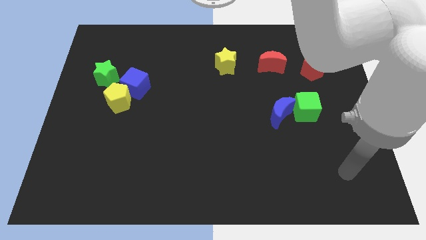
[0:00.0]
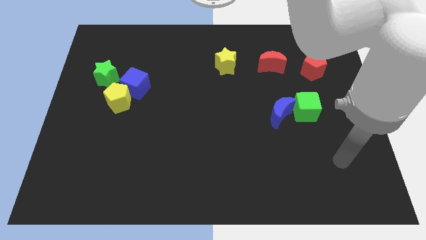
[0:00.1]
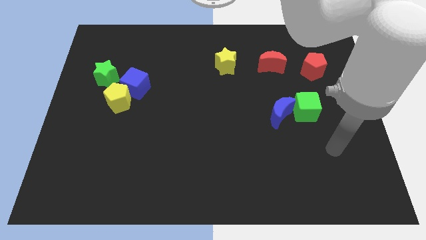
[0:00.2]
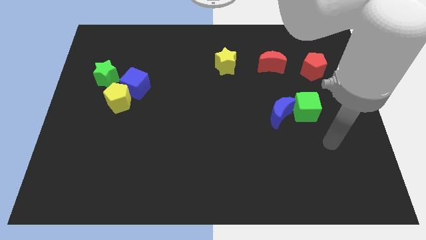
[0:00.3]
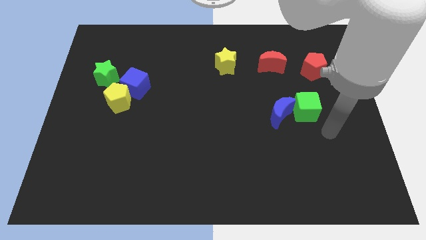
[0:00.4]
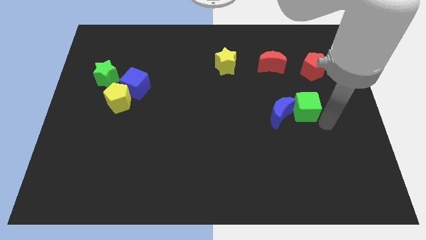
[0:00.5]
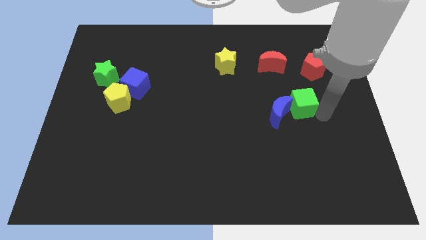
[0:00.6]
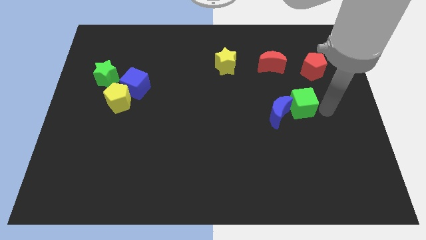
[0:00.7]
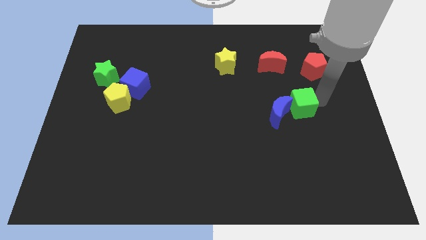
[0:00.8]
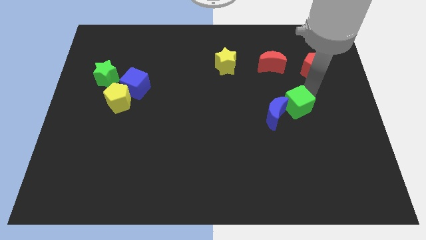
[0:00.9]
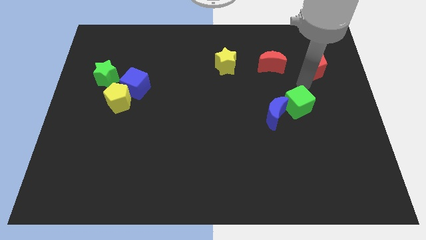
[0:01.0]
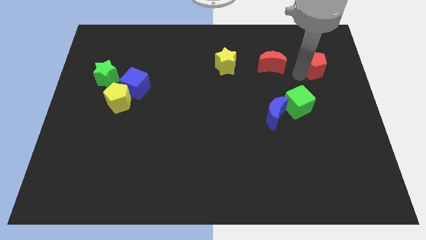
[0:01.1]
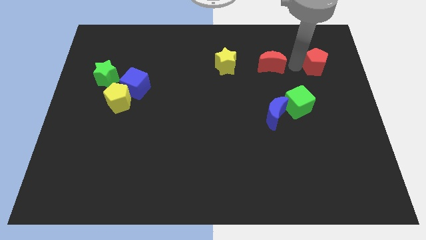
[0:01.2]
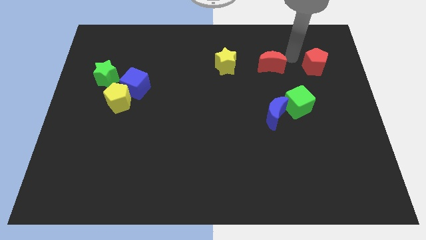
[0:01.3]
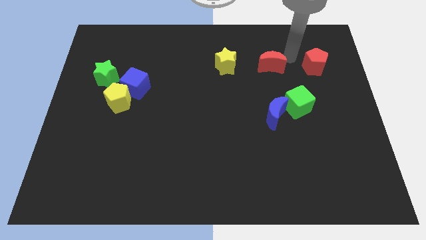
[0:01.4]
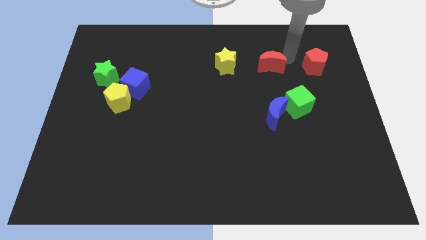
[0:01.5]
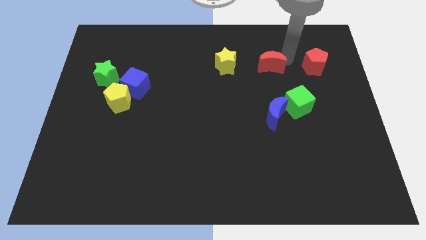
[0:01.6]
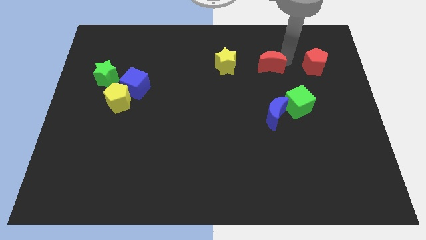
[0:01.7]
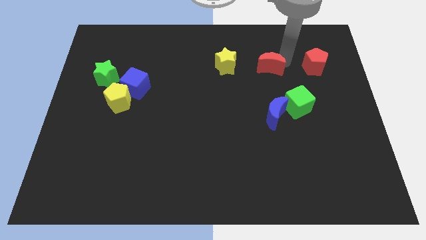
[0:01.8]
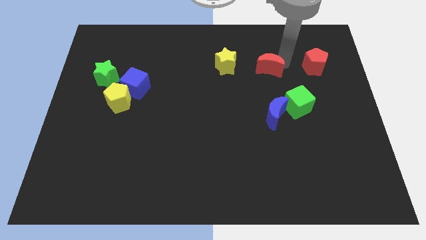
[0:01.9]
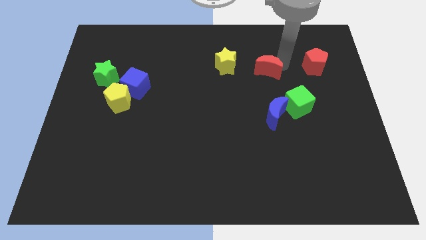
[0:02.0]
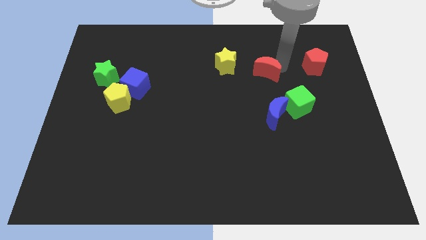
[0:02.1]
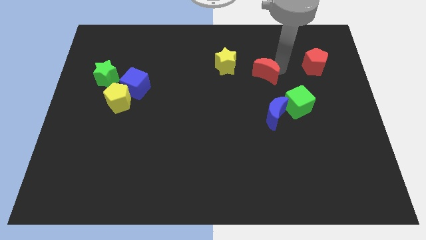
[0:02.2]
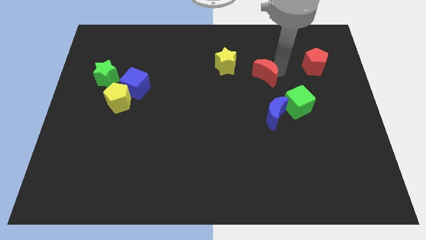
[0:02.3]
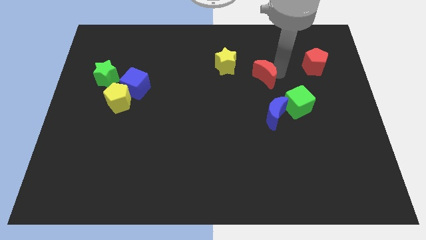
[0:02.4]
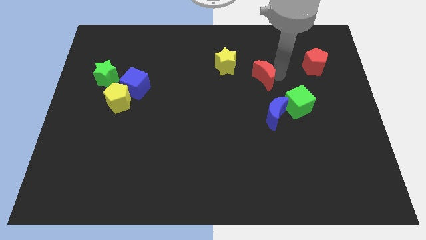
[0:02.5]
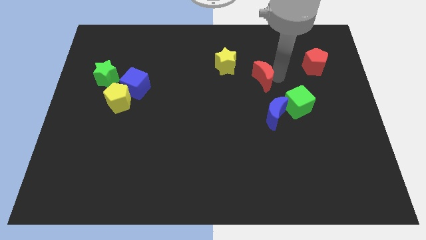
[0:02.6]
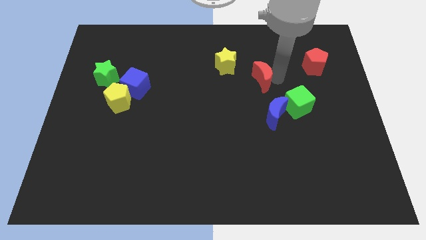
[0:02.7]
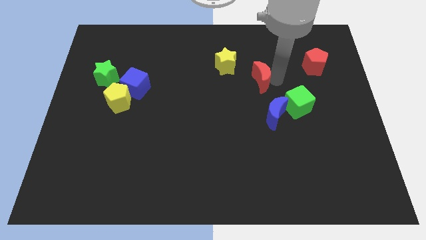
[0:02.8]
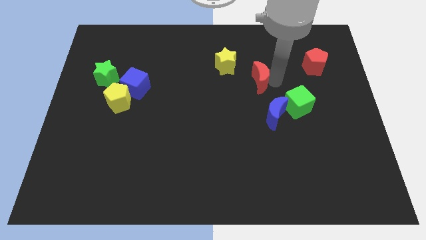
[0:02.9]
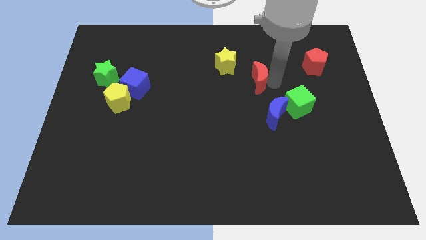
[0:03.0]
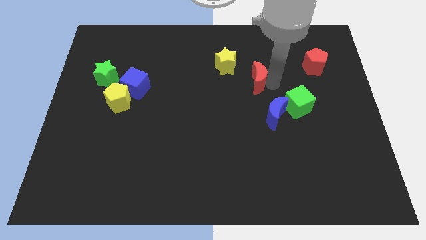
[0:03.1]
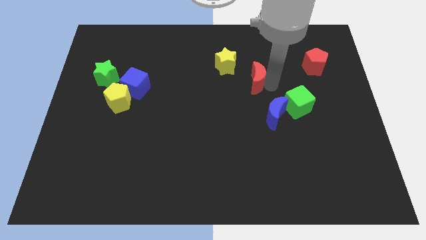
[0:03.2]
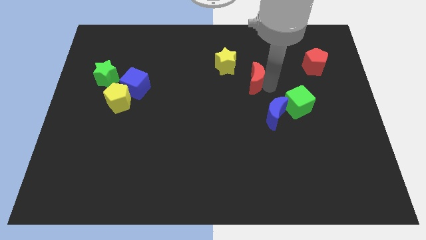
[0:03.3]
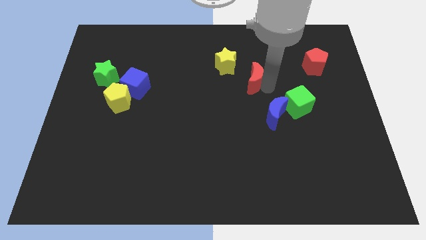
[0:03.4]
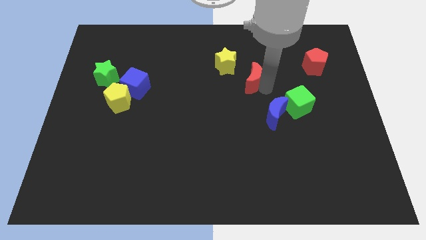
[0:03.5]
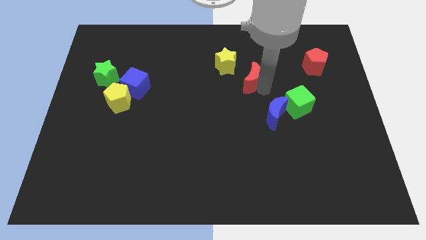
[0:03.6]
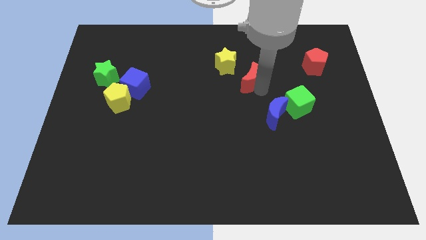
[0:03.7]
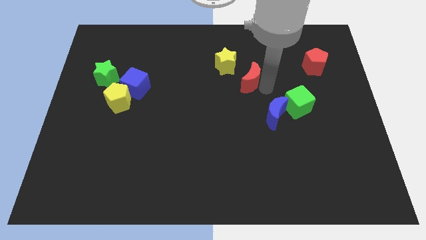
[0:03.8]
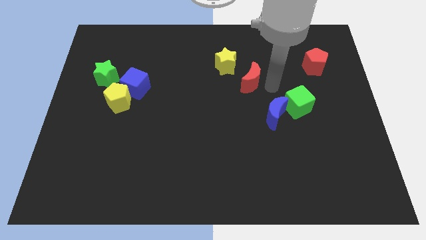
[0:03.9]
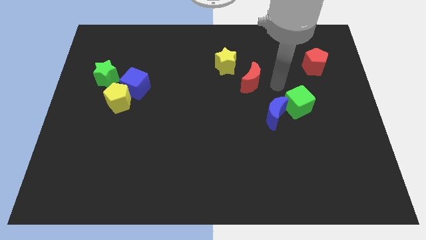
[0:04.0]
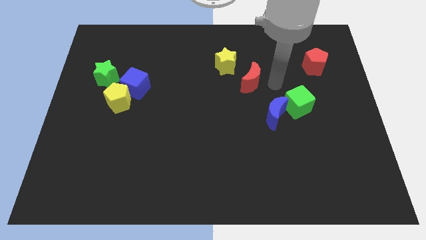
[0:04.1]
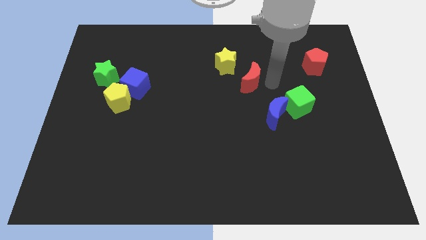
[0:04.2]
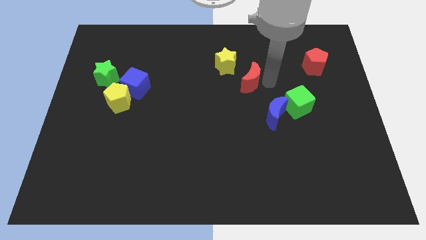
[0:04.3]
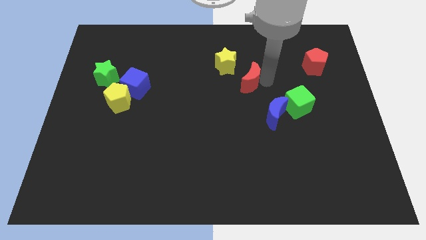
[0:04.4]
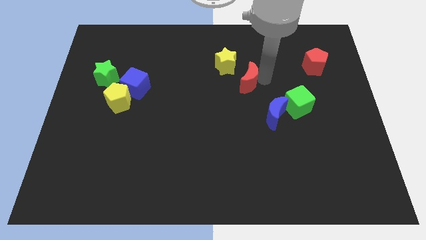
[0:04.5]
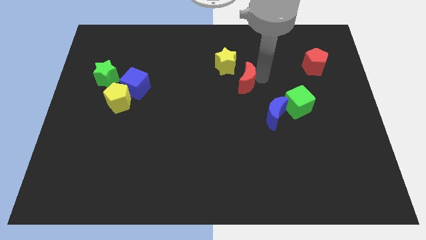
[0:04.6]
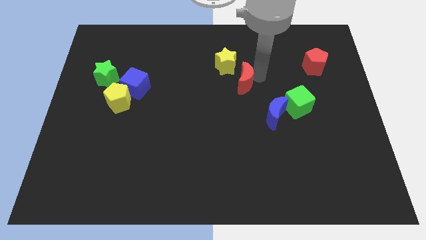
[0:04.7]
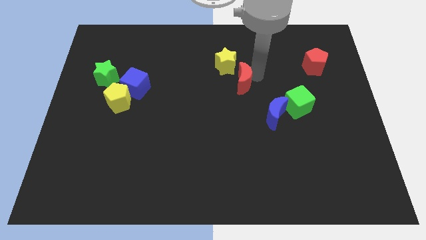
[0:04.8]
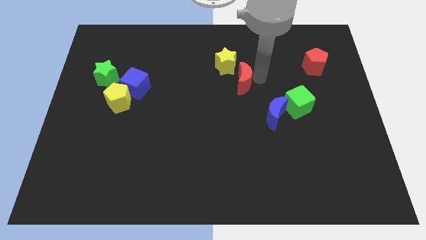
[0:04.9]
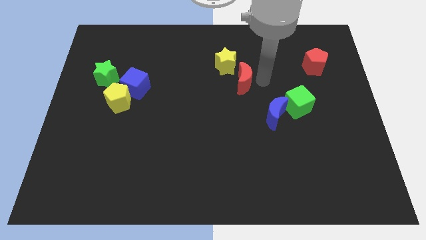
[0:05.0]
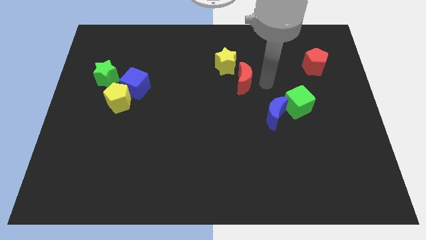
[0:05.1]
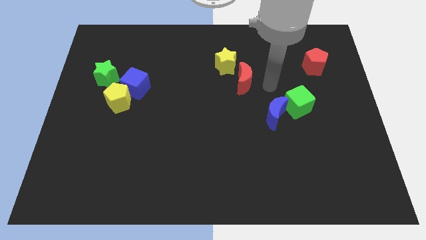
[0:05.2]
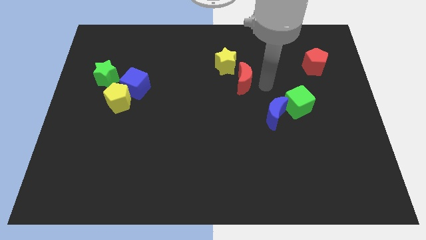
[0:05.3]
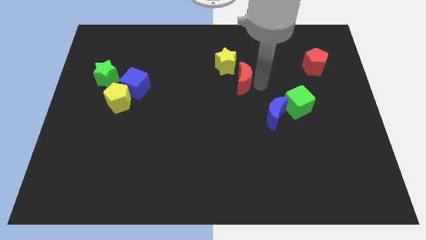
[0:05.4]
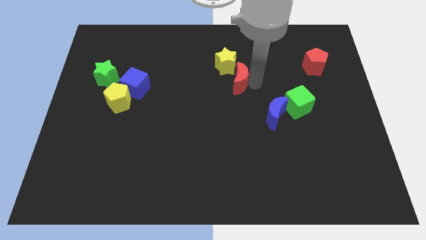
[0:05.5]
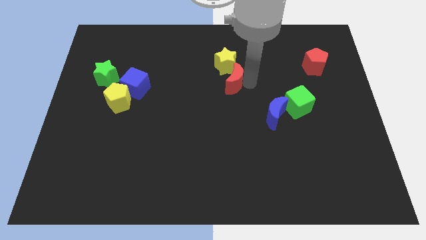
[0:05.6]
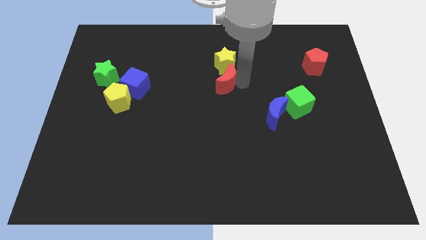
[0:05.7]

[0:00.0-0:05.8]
push the red moon to the bottom left of the yellow star

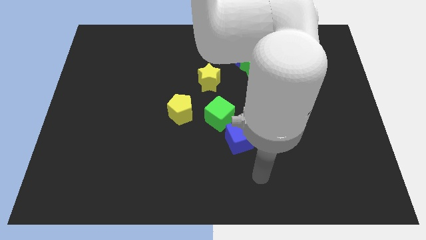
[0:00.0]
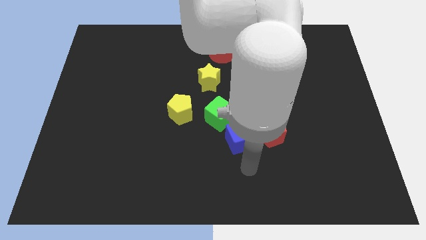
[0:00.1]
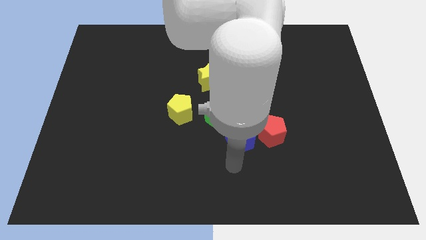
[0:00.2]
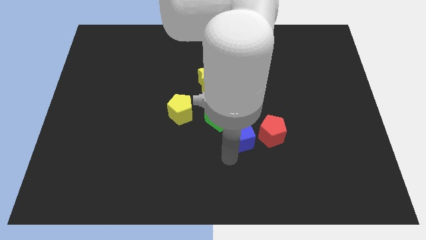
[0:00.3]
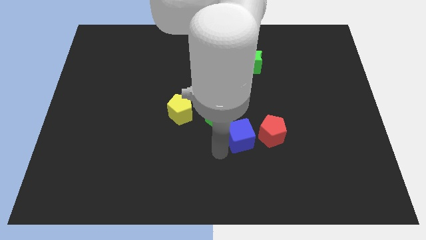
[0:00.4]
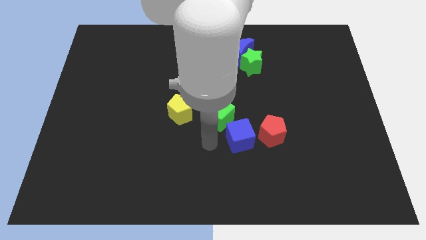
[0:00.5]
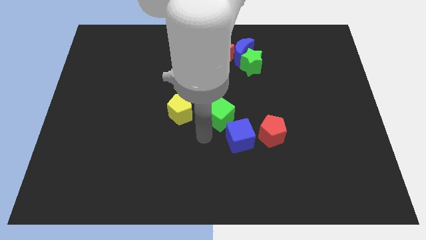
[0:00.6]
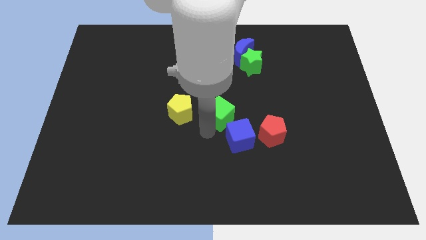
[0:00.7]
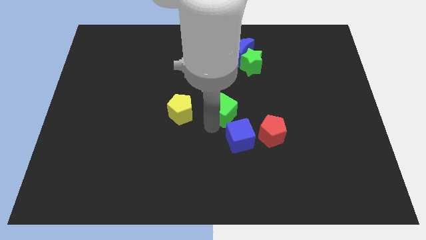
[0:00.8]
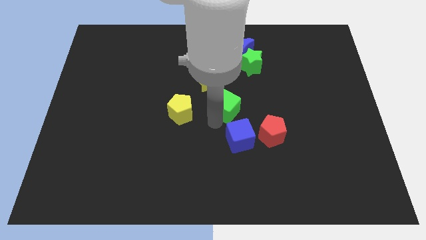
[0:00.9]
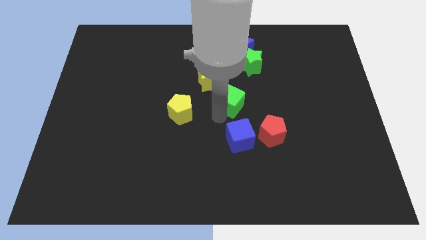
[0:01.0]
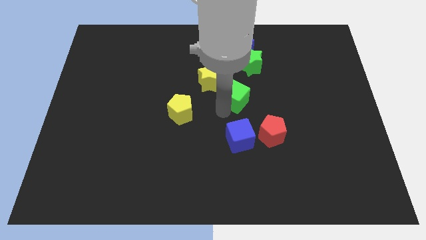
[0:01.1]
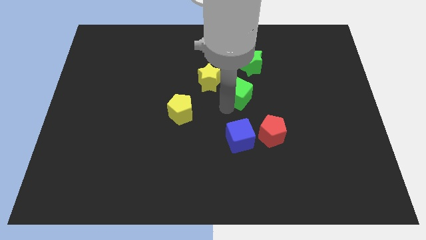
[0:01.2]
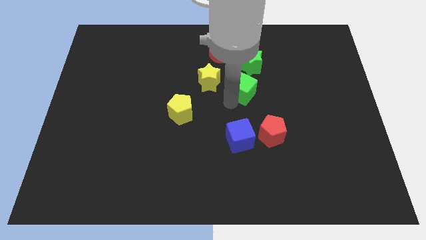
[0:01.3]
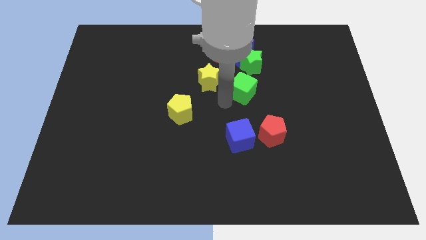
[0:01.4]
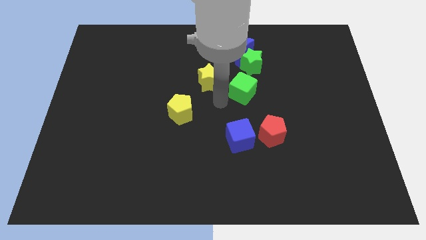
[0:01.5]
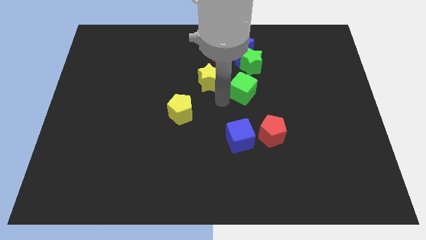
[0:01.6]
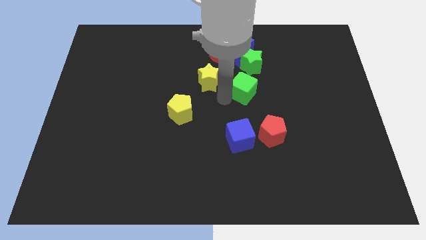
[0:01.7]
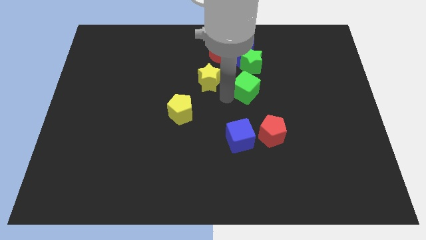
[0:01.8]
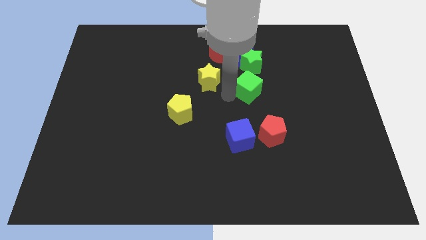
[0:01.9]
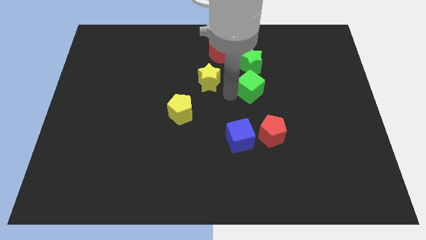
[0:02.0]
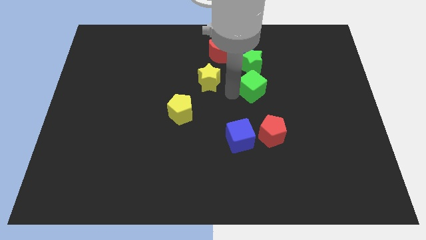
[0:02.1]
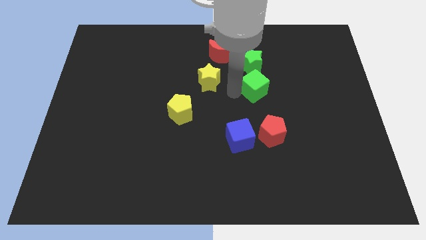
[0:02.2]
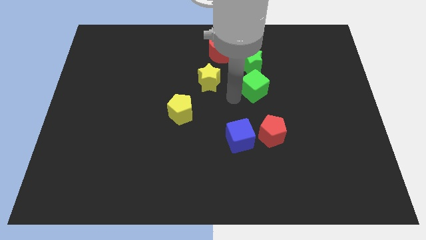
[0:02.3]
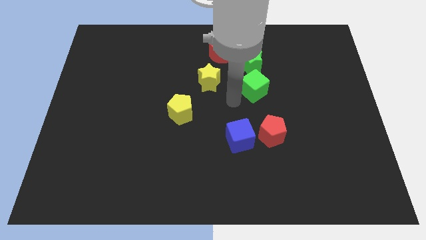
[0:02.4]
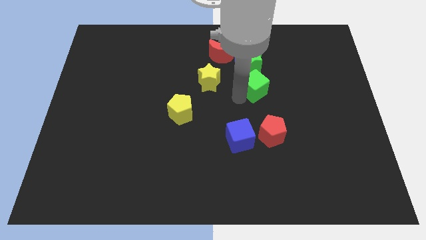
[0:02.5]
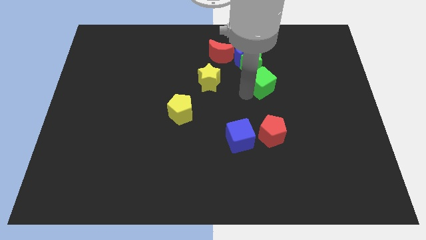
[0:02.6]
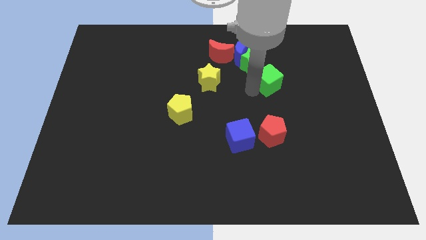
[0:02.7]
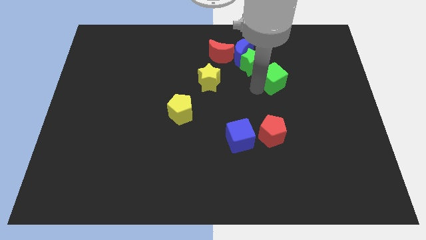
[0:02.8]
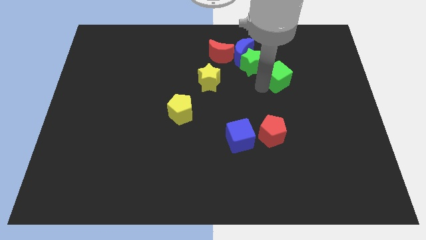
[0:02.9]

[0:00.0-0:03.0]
slide the green cube just right of the green star
